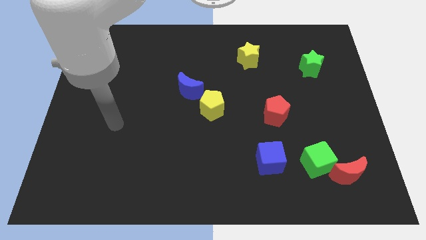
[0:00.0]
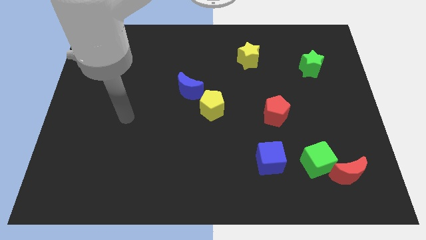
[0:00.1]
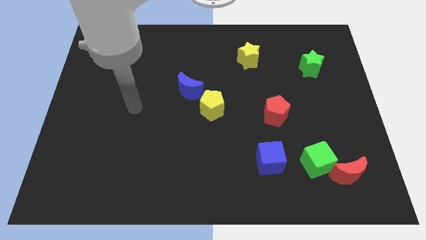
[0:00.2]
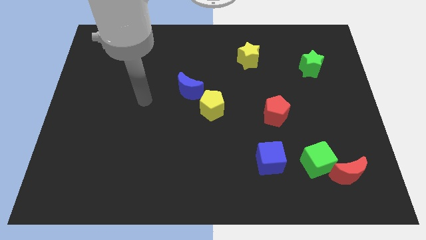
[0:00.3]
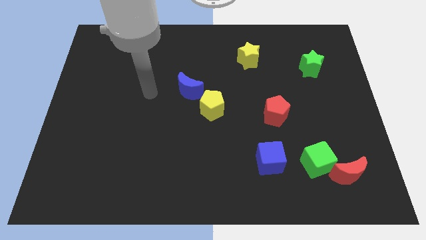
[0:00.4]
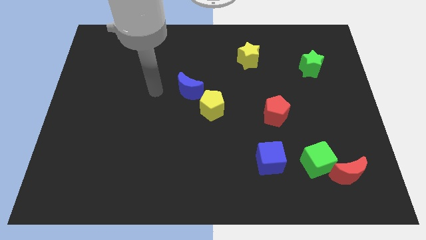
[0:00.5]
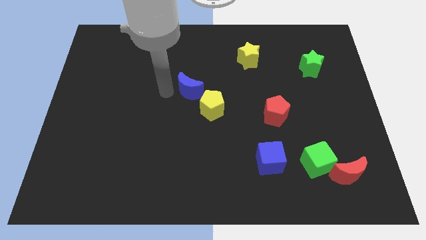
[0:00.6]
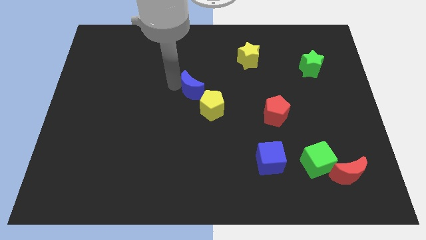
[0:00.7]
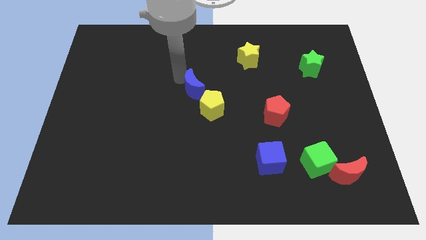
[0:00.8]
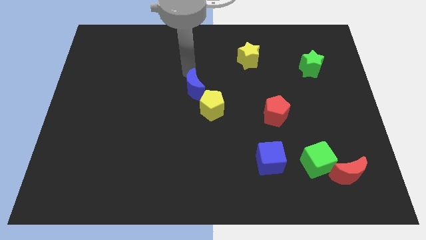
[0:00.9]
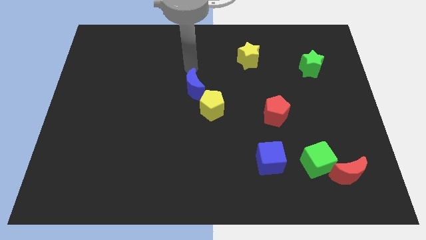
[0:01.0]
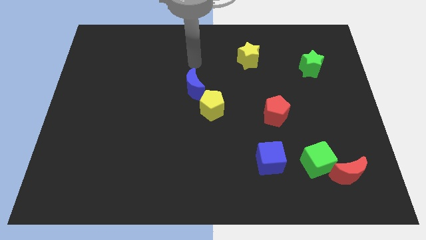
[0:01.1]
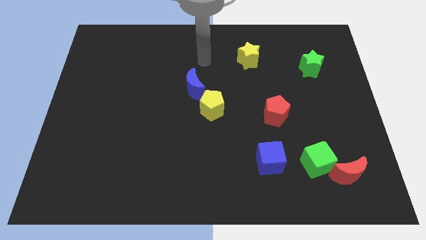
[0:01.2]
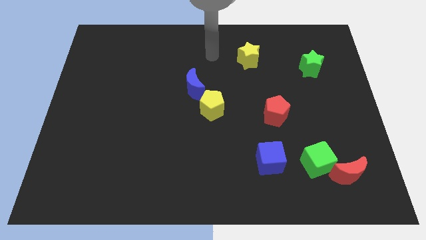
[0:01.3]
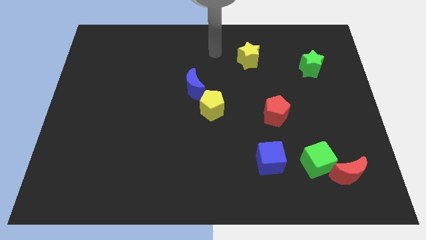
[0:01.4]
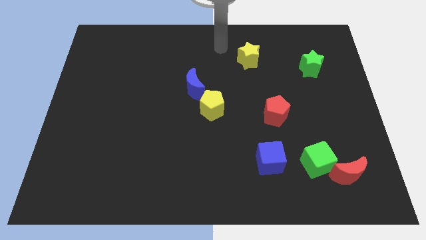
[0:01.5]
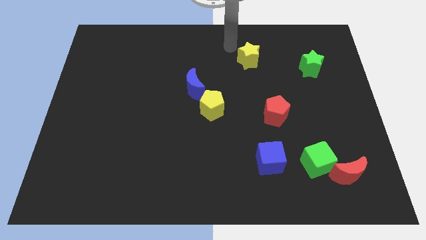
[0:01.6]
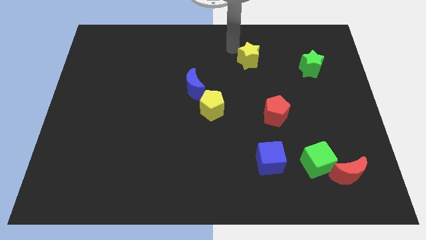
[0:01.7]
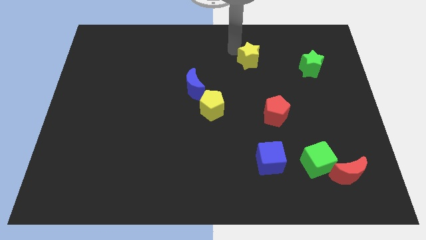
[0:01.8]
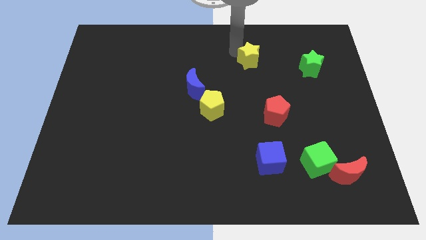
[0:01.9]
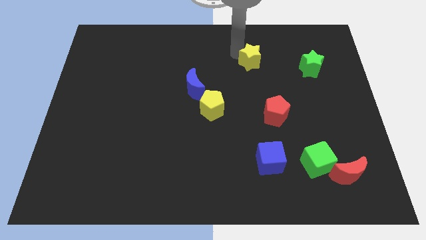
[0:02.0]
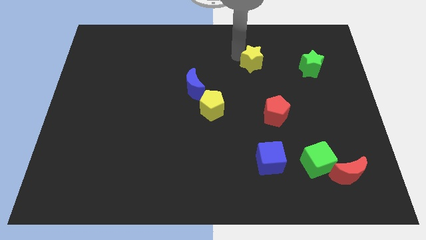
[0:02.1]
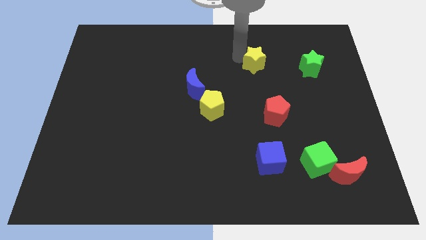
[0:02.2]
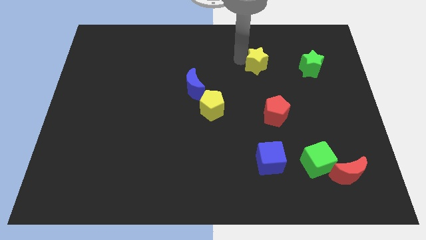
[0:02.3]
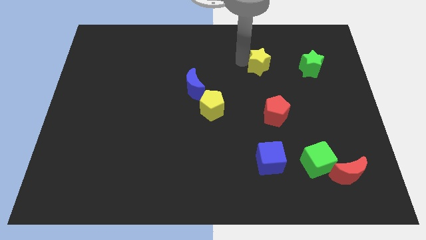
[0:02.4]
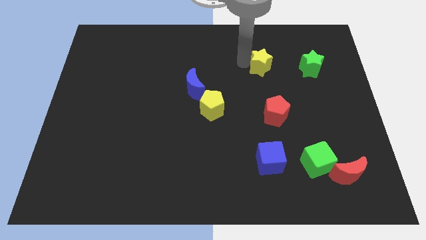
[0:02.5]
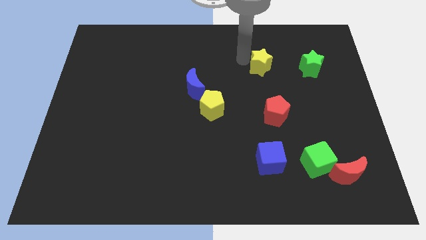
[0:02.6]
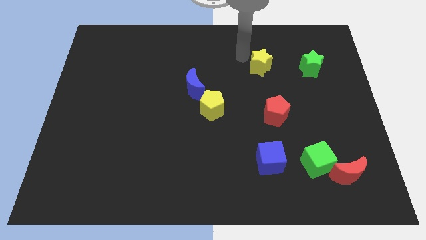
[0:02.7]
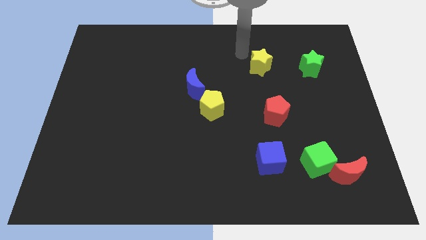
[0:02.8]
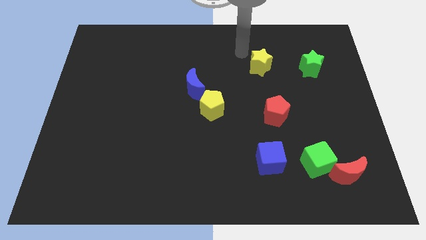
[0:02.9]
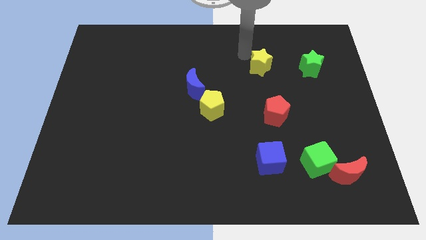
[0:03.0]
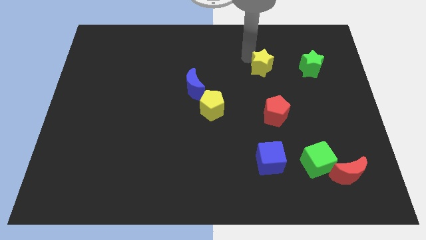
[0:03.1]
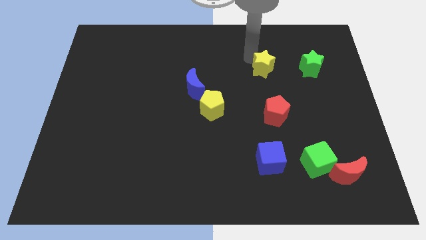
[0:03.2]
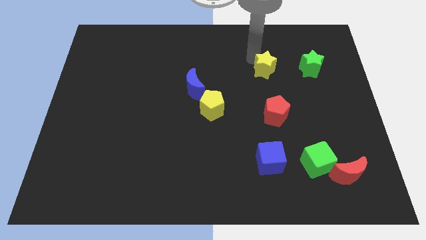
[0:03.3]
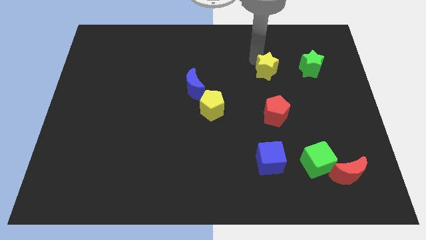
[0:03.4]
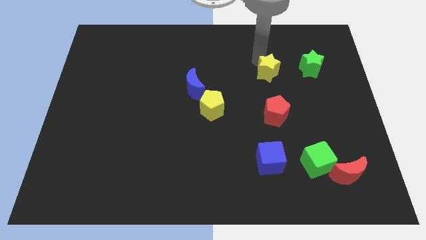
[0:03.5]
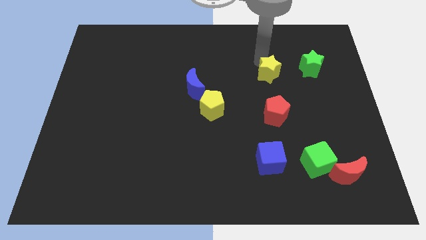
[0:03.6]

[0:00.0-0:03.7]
slightly slide the yellow star downwards and right

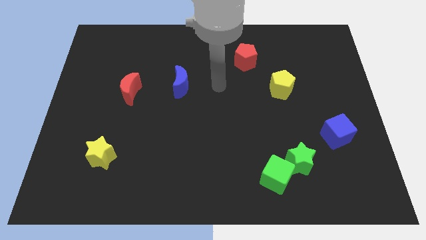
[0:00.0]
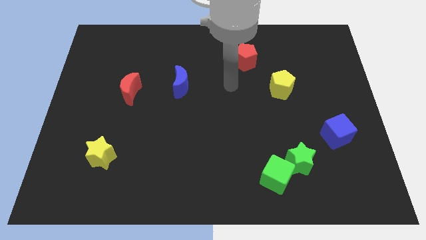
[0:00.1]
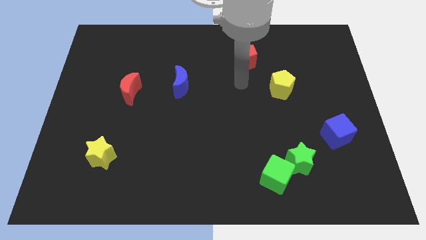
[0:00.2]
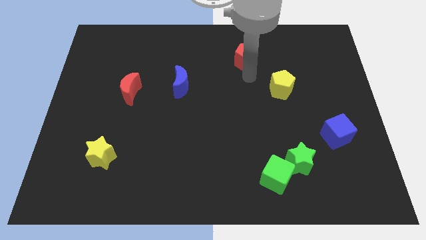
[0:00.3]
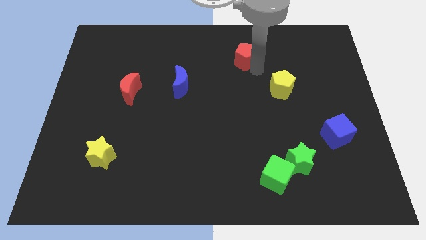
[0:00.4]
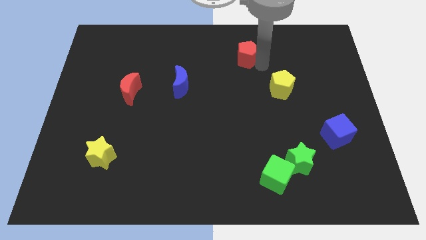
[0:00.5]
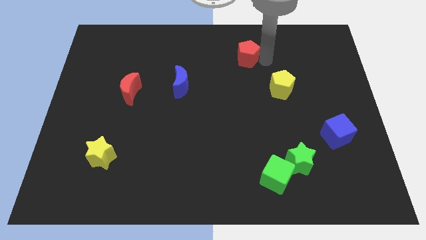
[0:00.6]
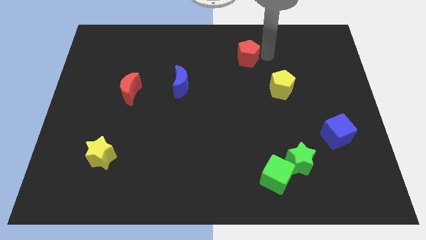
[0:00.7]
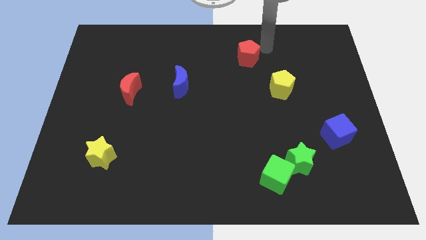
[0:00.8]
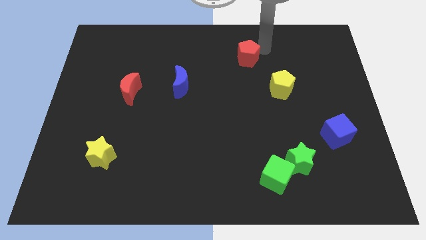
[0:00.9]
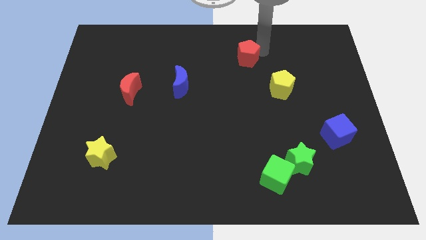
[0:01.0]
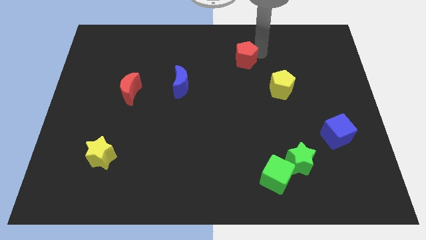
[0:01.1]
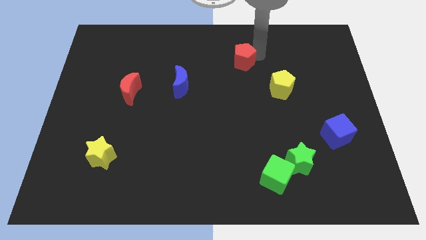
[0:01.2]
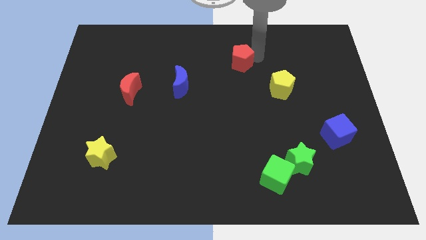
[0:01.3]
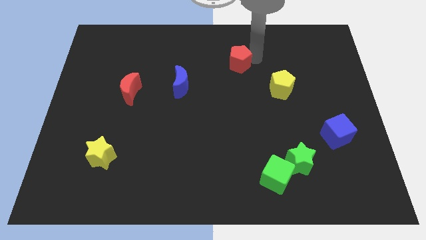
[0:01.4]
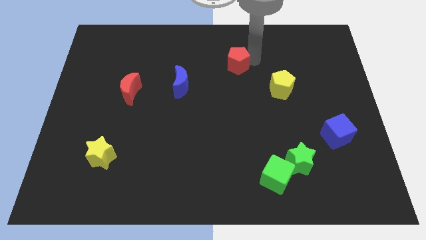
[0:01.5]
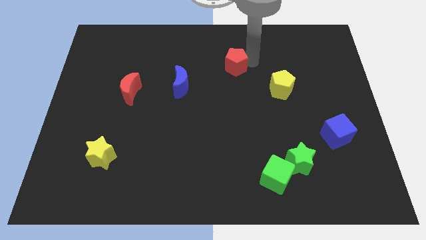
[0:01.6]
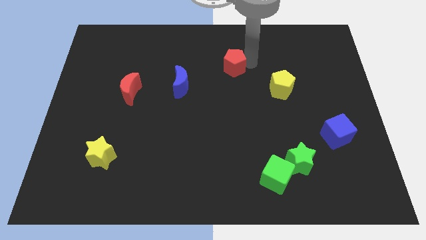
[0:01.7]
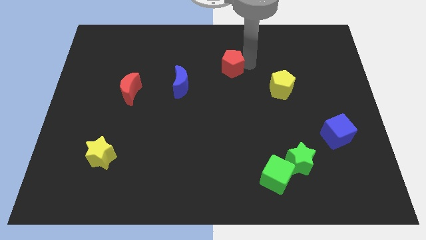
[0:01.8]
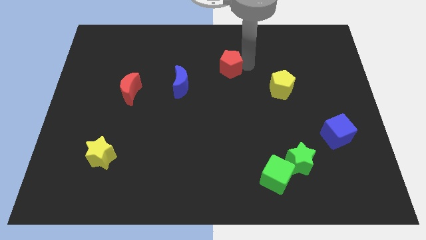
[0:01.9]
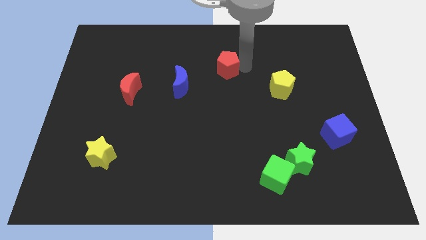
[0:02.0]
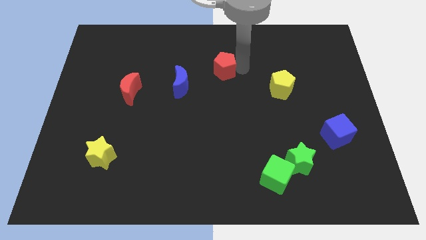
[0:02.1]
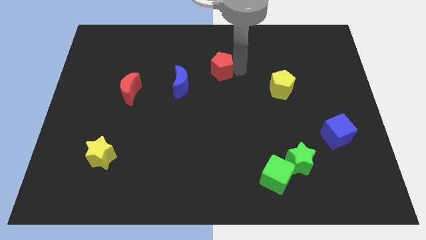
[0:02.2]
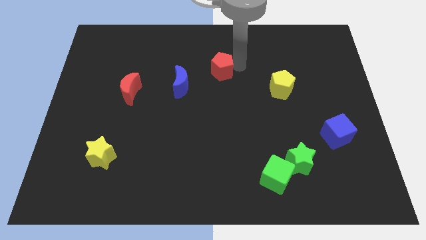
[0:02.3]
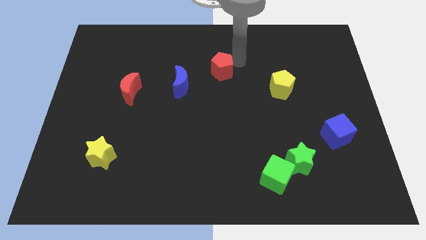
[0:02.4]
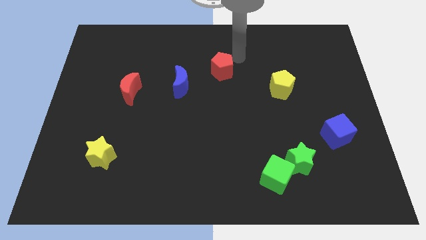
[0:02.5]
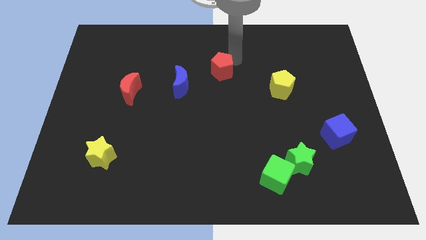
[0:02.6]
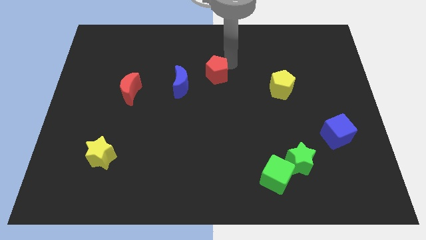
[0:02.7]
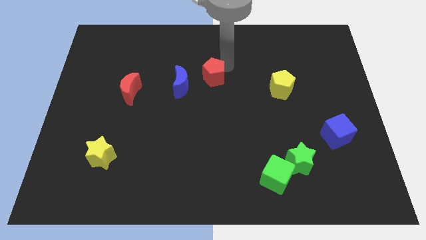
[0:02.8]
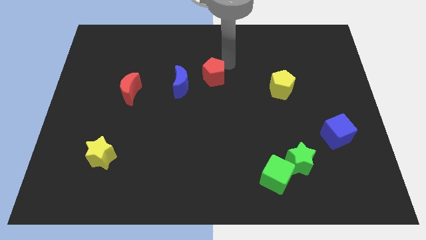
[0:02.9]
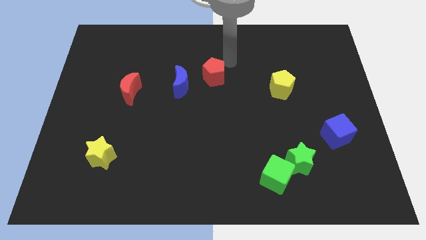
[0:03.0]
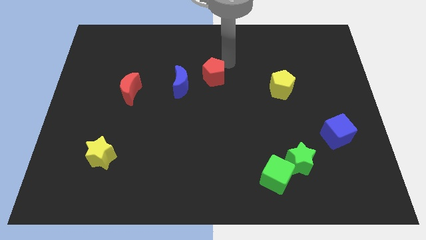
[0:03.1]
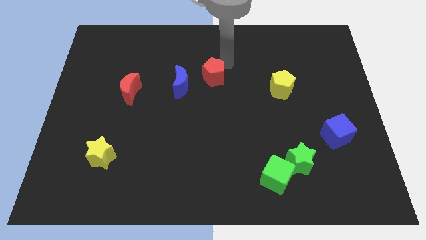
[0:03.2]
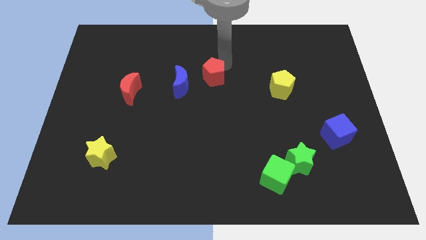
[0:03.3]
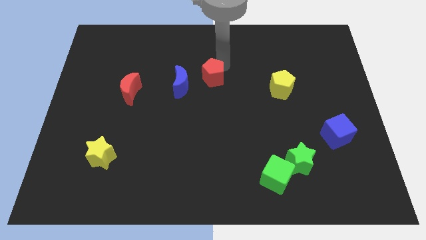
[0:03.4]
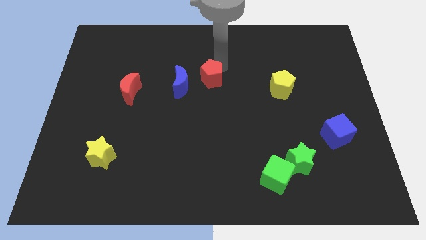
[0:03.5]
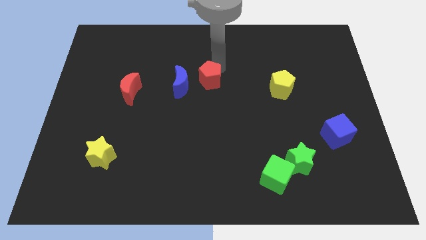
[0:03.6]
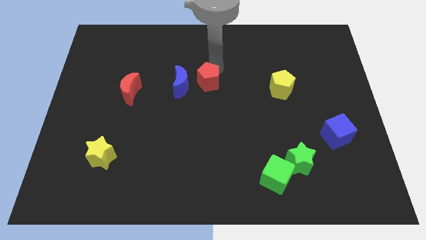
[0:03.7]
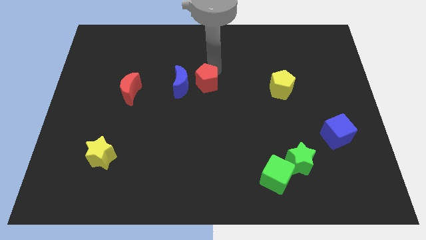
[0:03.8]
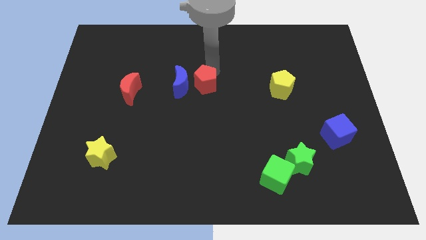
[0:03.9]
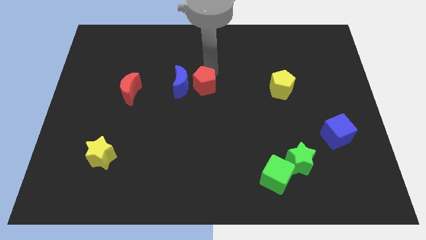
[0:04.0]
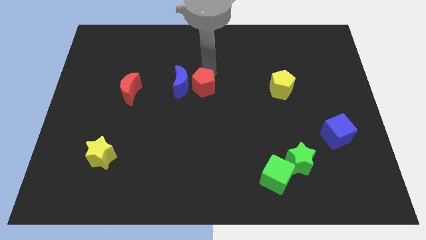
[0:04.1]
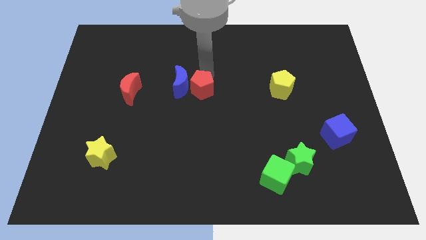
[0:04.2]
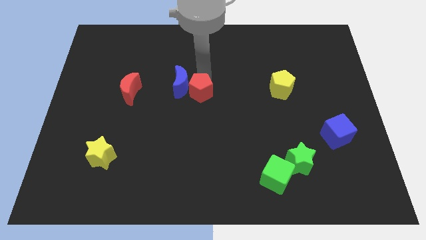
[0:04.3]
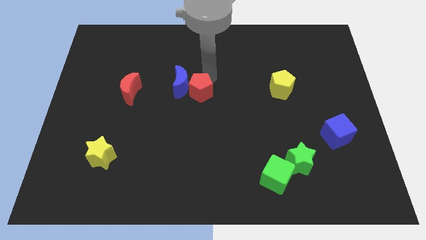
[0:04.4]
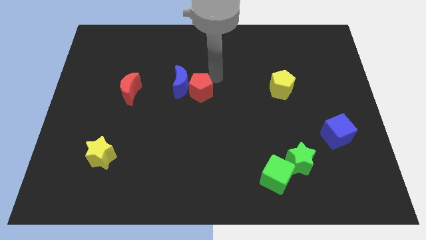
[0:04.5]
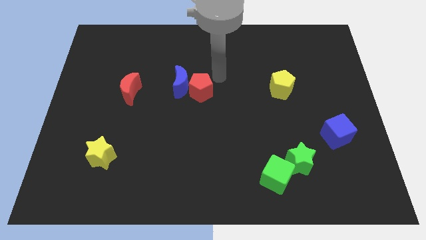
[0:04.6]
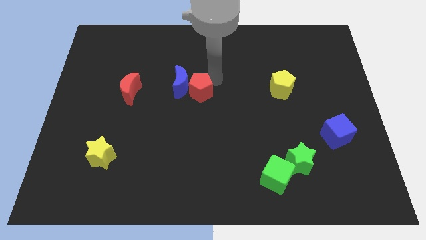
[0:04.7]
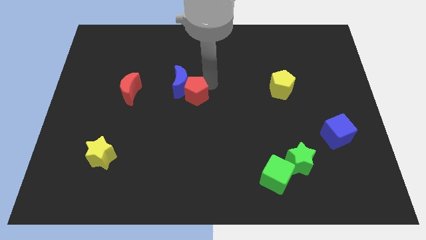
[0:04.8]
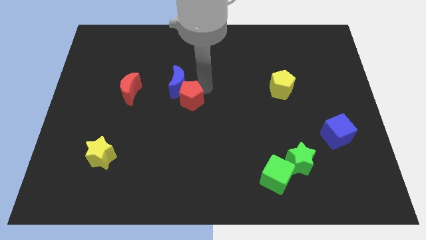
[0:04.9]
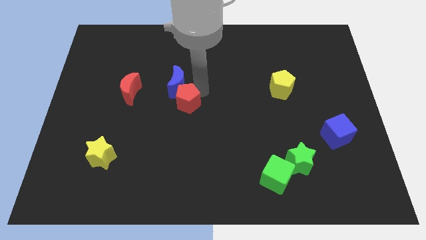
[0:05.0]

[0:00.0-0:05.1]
slide the red pentagon downwards and left
